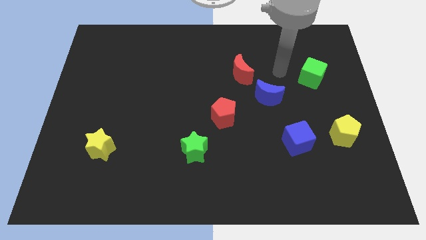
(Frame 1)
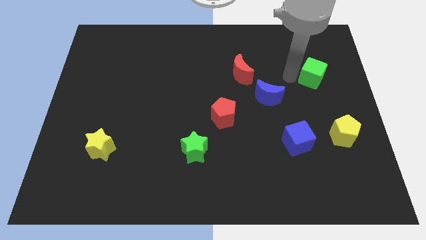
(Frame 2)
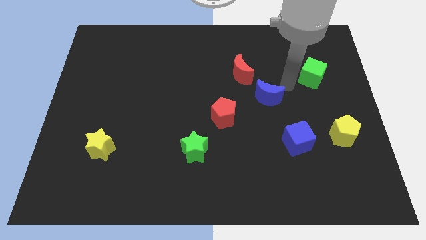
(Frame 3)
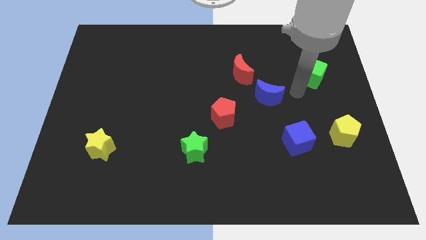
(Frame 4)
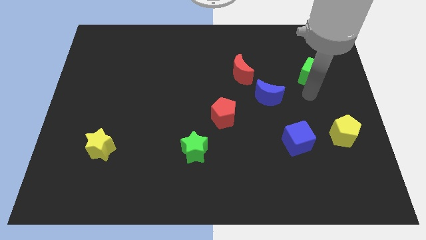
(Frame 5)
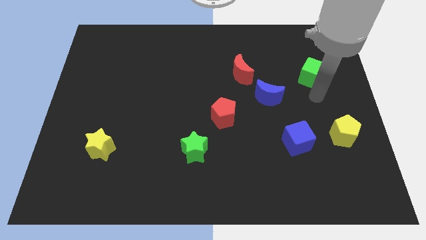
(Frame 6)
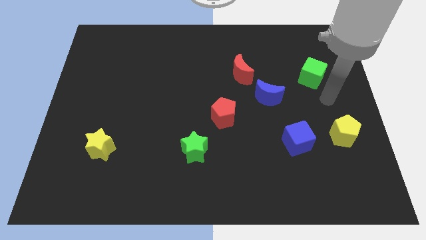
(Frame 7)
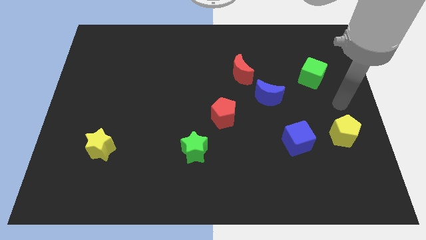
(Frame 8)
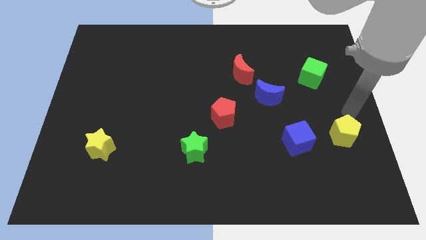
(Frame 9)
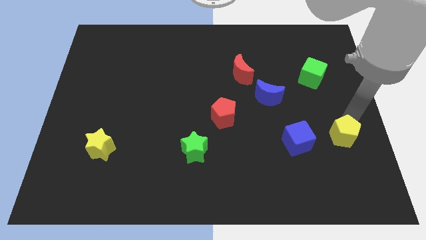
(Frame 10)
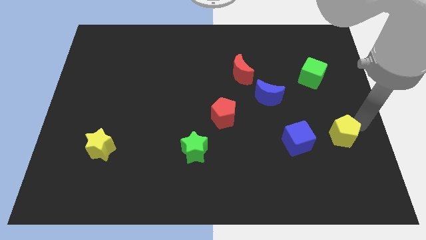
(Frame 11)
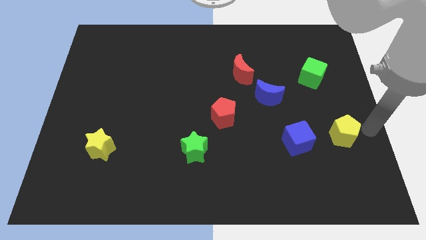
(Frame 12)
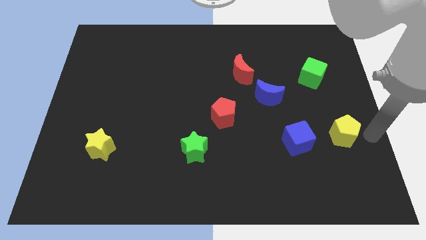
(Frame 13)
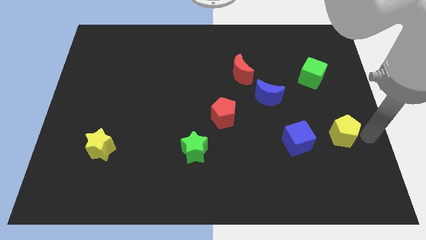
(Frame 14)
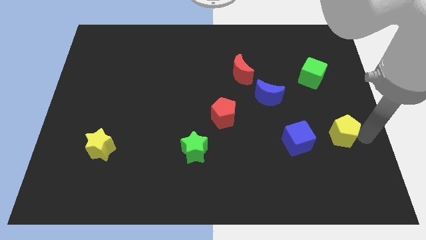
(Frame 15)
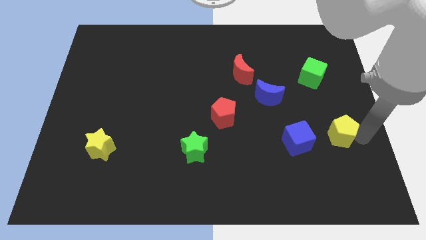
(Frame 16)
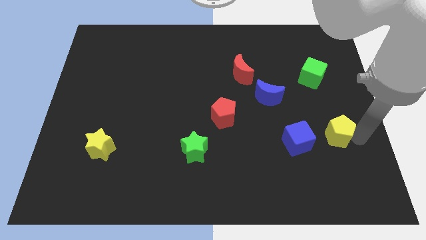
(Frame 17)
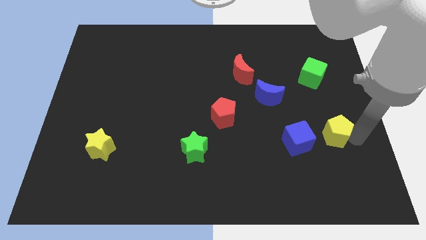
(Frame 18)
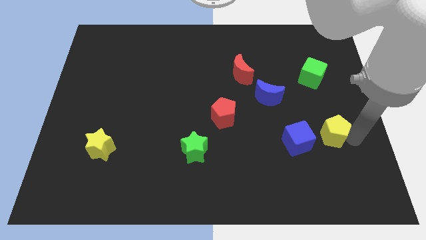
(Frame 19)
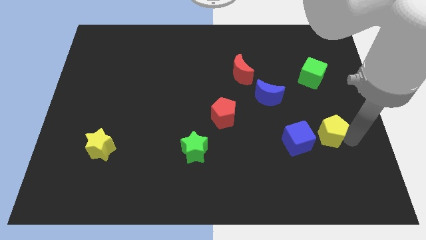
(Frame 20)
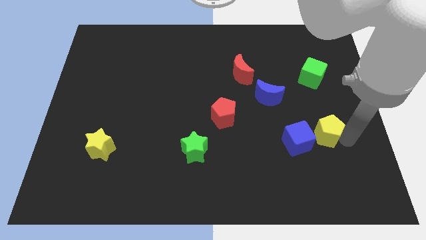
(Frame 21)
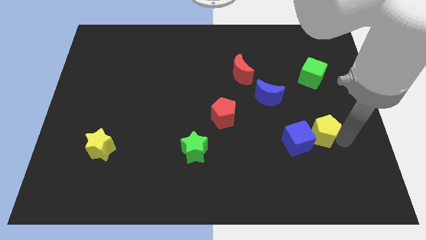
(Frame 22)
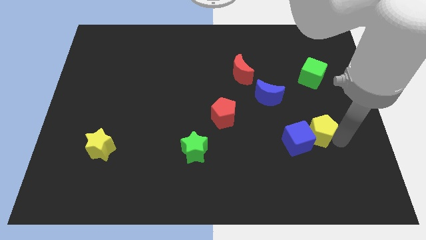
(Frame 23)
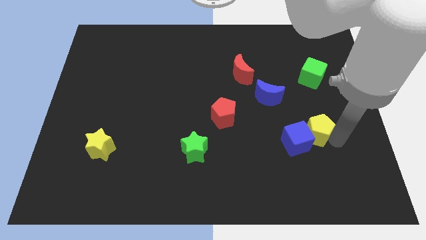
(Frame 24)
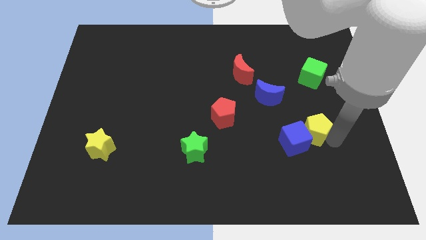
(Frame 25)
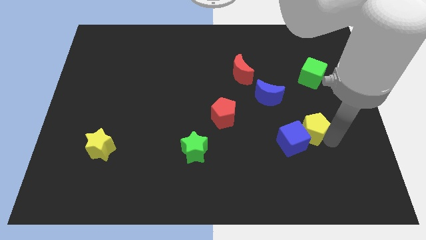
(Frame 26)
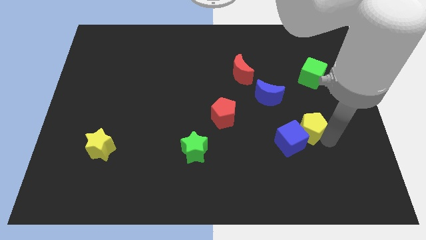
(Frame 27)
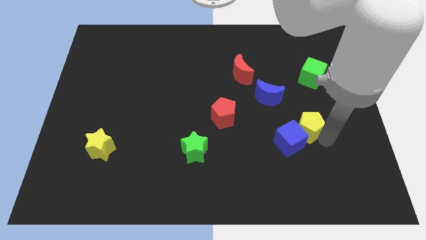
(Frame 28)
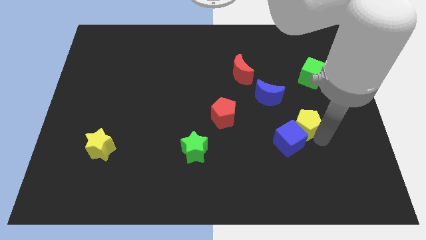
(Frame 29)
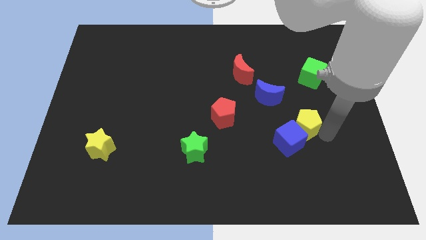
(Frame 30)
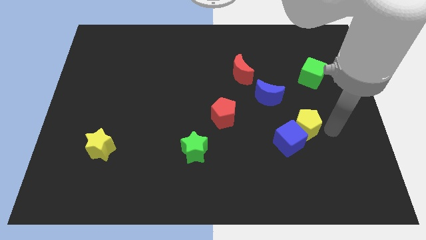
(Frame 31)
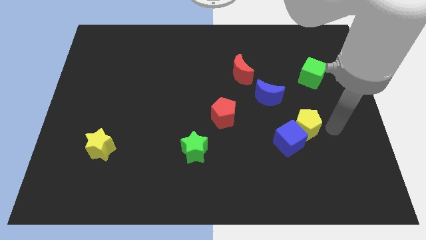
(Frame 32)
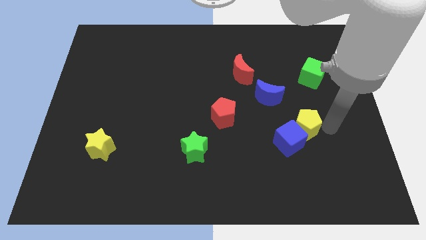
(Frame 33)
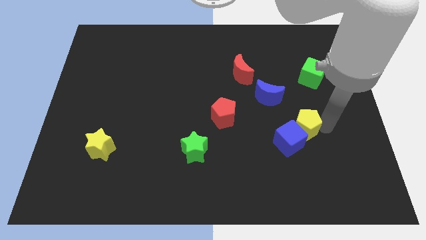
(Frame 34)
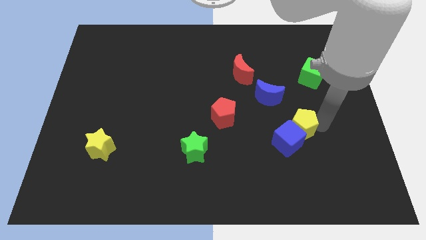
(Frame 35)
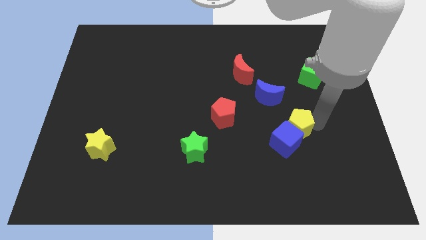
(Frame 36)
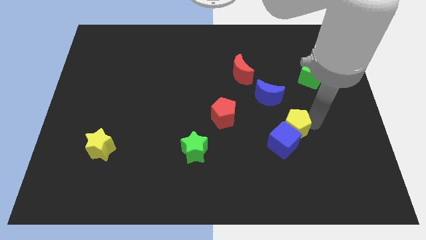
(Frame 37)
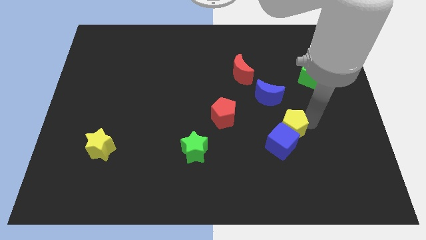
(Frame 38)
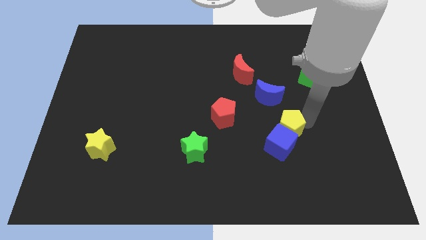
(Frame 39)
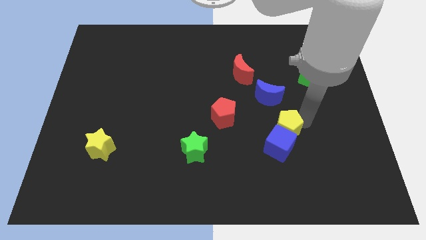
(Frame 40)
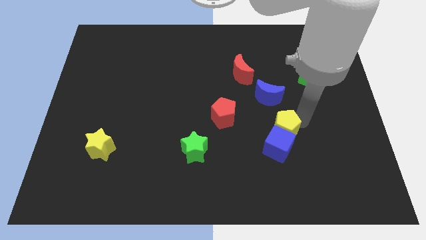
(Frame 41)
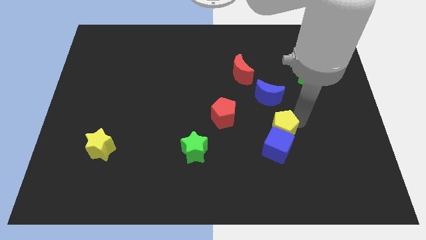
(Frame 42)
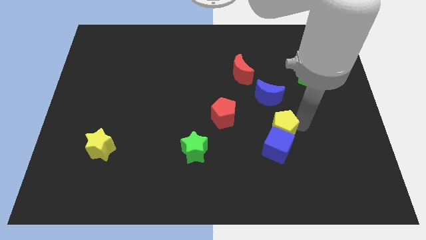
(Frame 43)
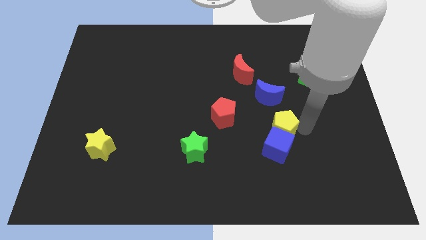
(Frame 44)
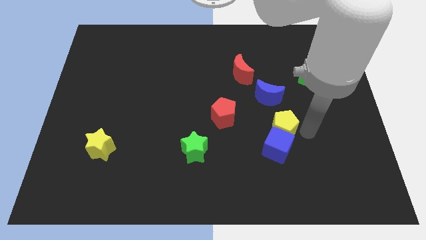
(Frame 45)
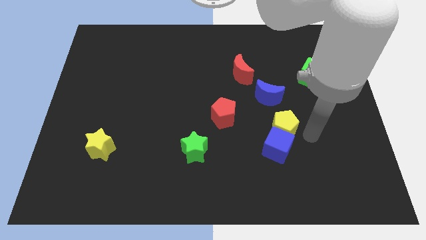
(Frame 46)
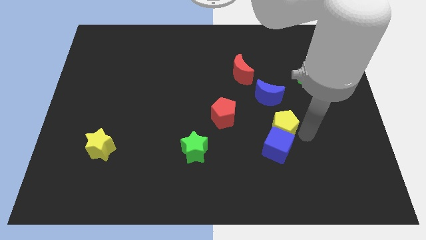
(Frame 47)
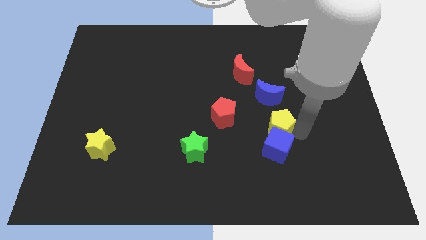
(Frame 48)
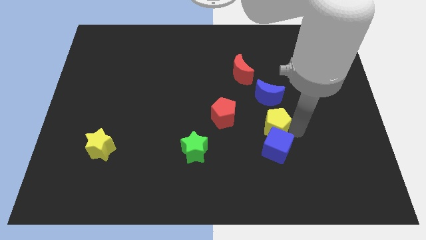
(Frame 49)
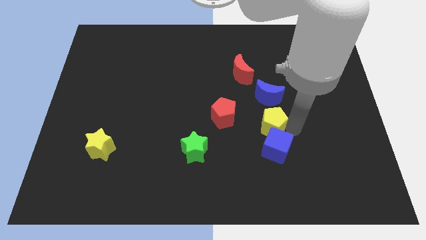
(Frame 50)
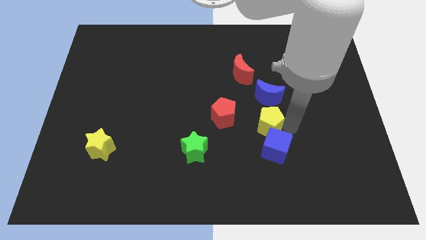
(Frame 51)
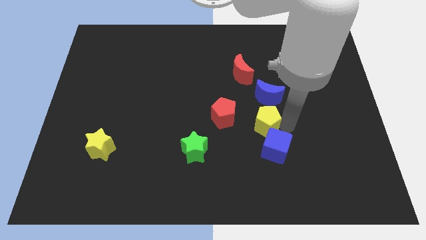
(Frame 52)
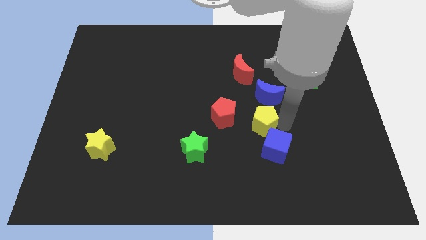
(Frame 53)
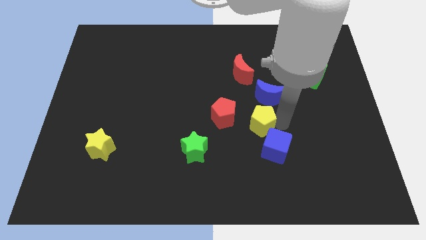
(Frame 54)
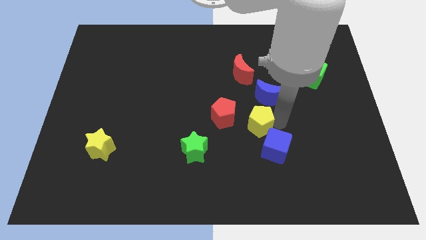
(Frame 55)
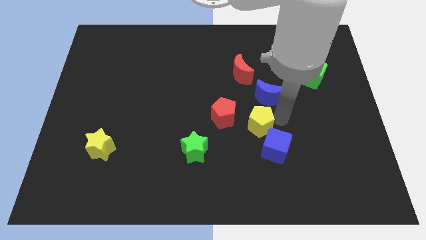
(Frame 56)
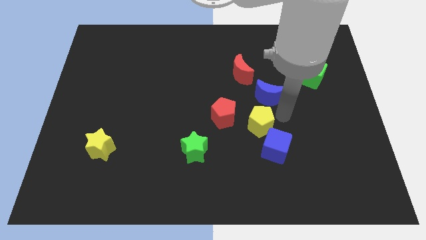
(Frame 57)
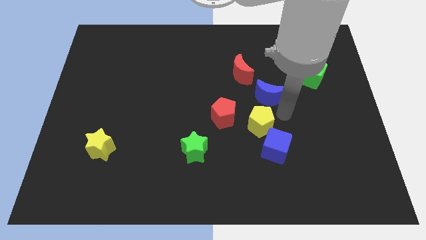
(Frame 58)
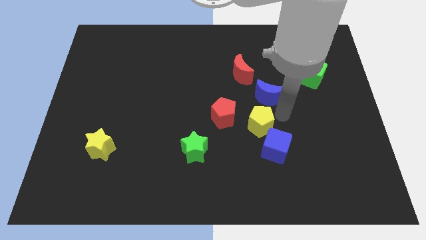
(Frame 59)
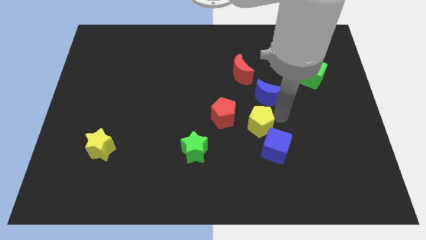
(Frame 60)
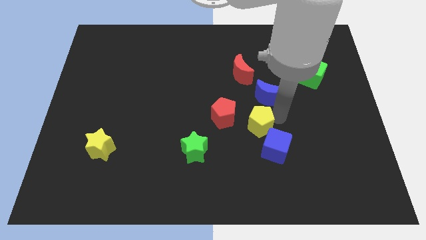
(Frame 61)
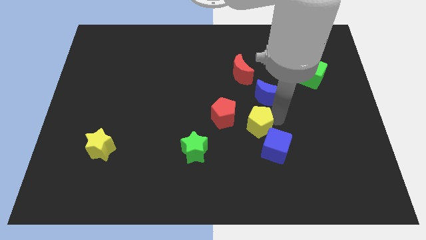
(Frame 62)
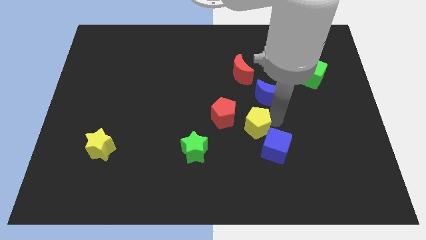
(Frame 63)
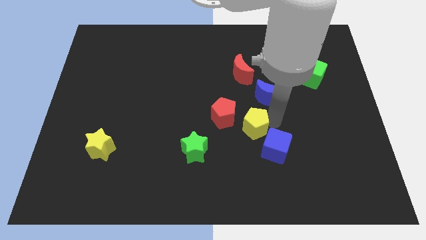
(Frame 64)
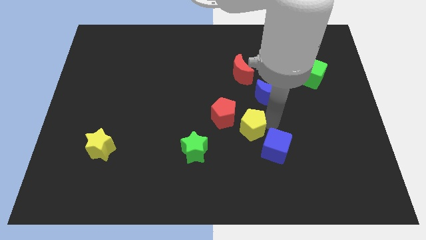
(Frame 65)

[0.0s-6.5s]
push the yellow pentagon left

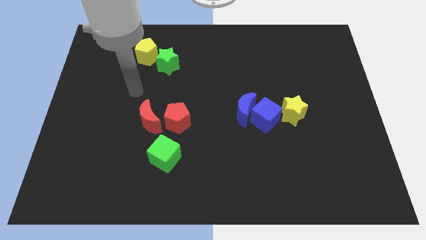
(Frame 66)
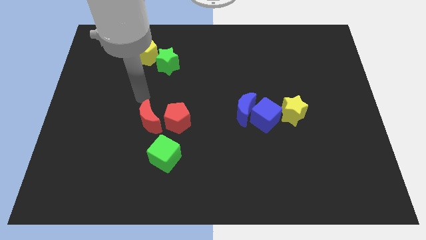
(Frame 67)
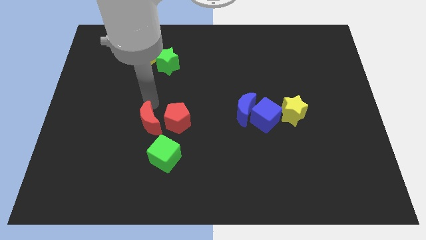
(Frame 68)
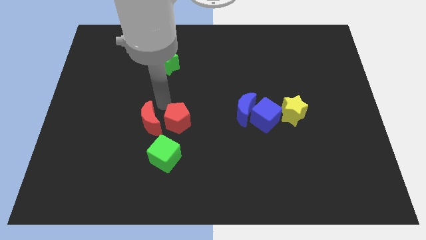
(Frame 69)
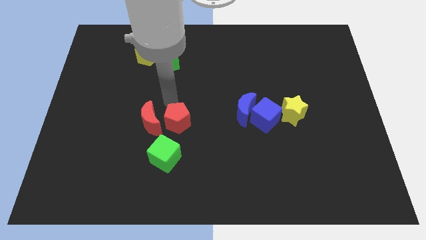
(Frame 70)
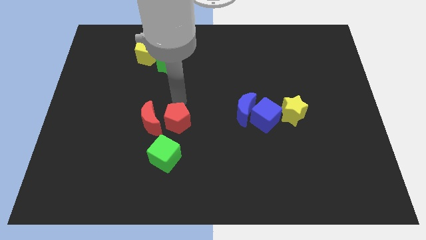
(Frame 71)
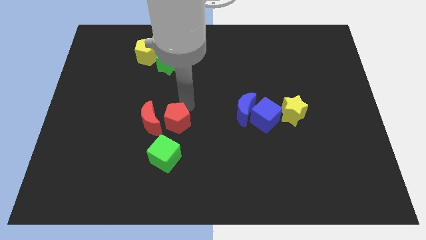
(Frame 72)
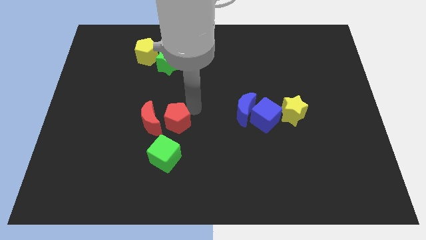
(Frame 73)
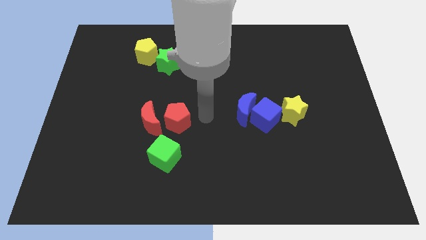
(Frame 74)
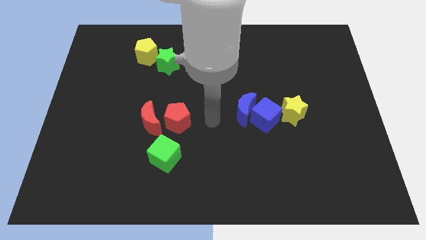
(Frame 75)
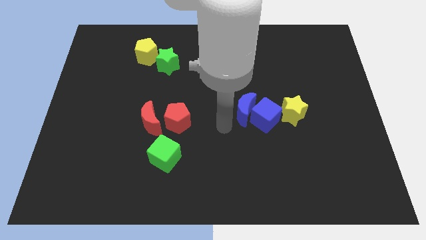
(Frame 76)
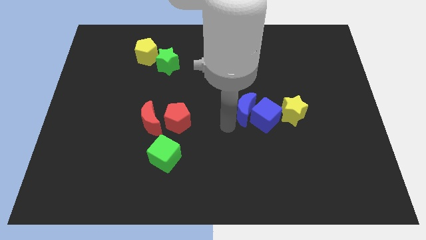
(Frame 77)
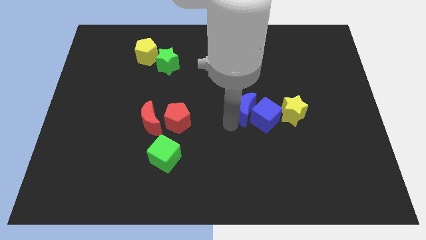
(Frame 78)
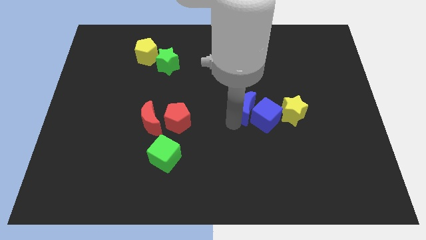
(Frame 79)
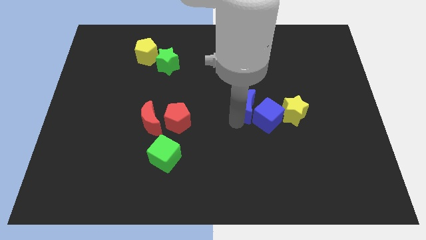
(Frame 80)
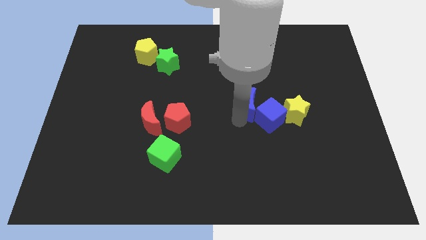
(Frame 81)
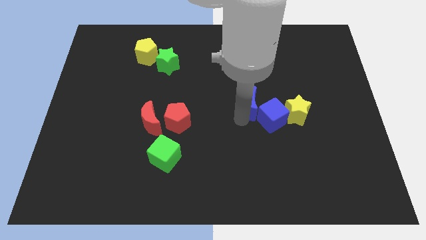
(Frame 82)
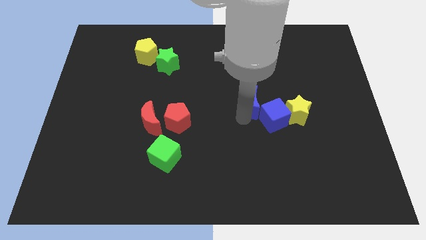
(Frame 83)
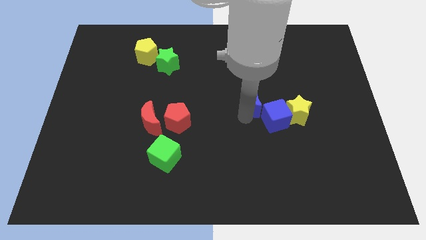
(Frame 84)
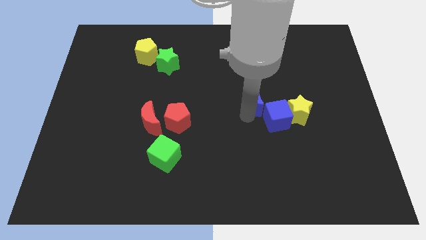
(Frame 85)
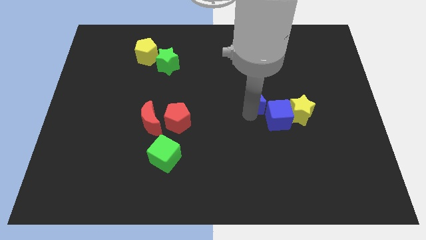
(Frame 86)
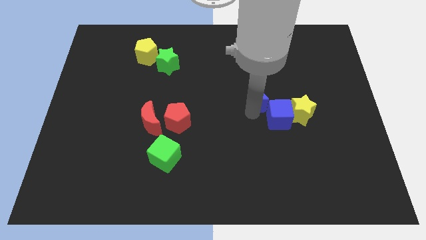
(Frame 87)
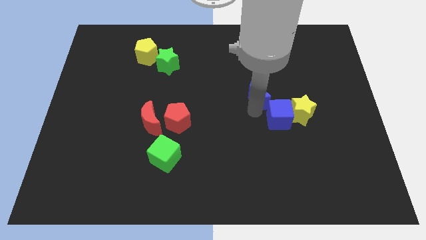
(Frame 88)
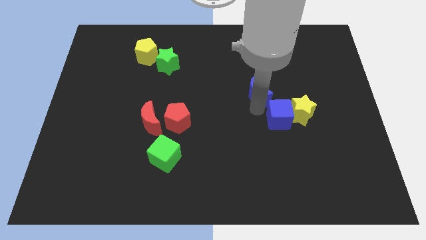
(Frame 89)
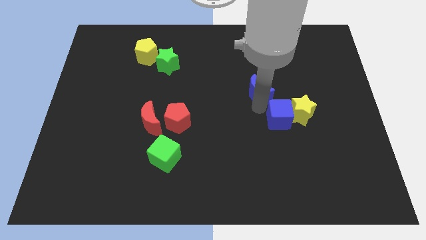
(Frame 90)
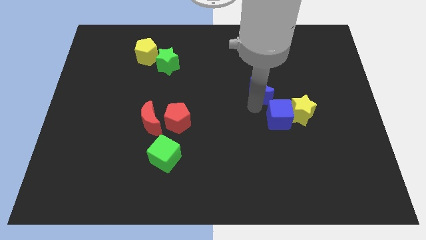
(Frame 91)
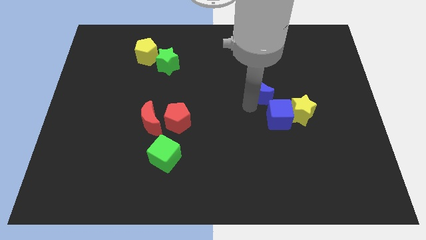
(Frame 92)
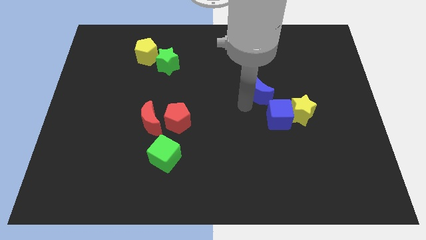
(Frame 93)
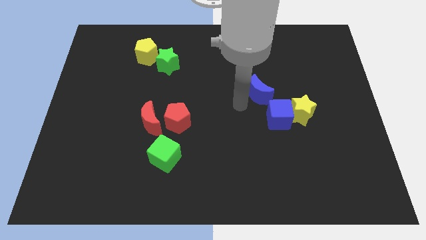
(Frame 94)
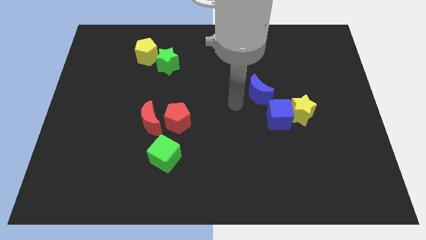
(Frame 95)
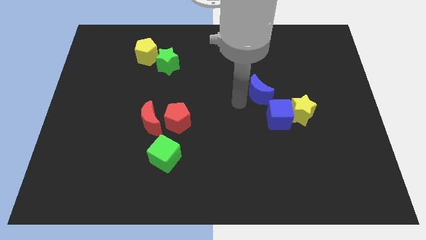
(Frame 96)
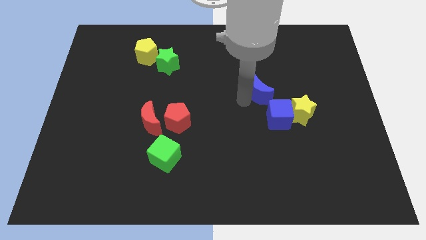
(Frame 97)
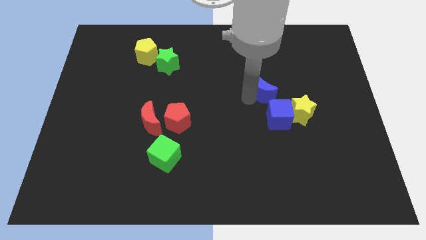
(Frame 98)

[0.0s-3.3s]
push the blue moon a little upwards and right
